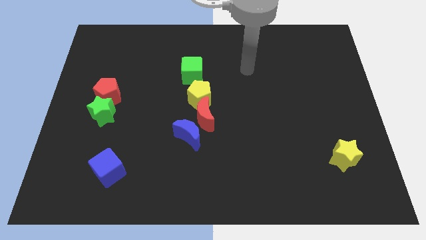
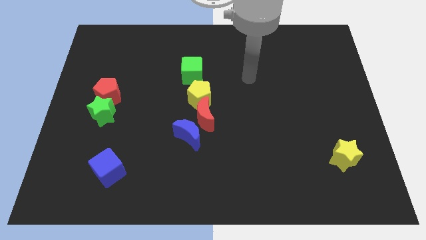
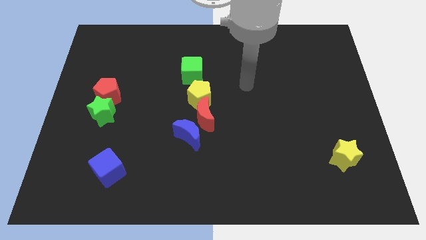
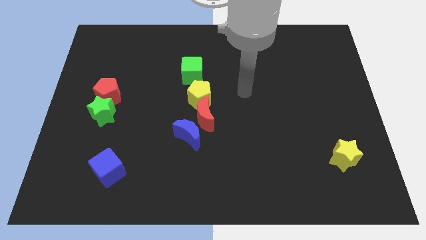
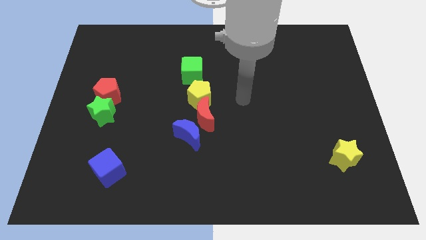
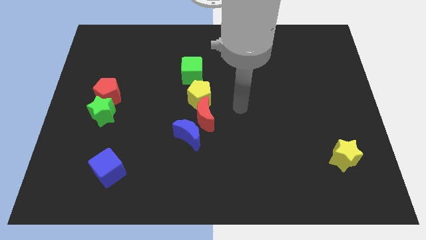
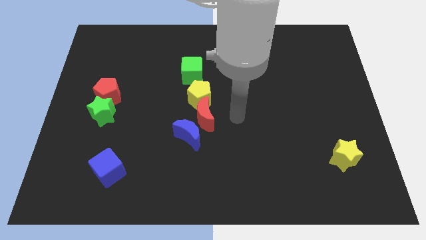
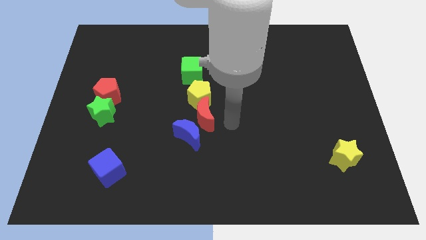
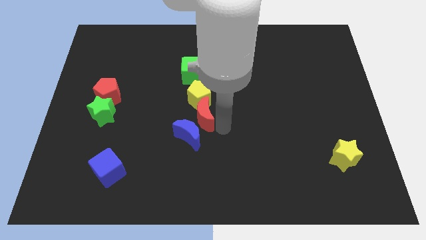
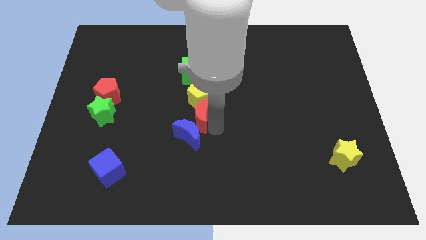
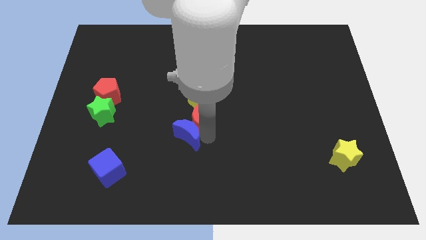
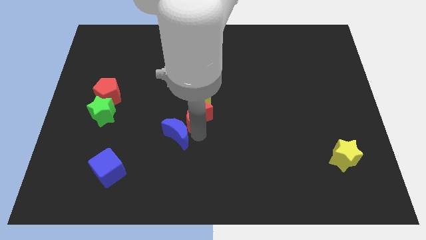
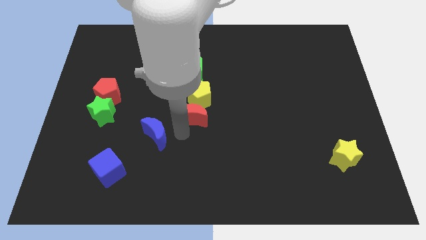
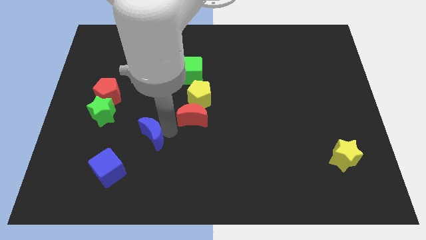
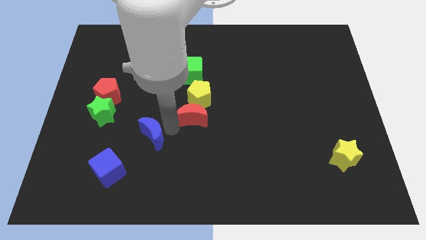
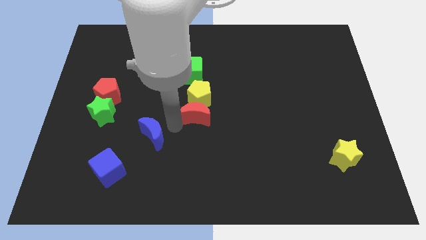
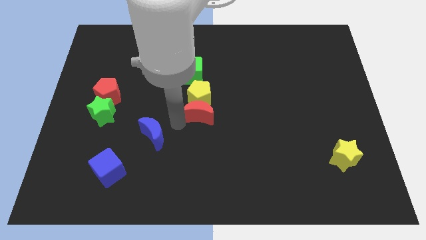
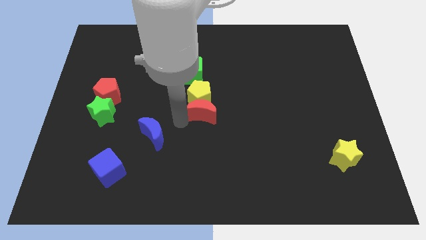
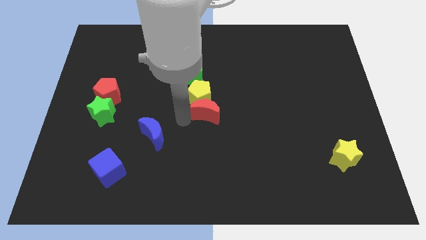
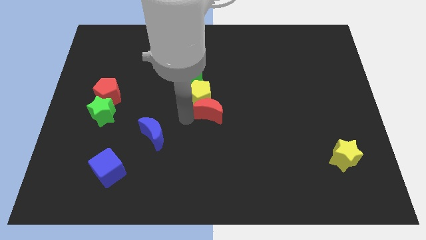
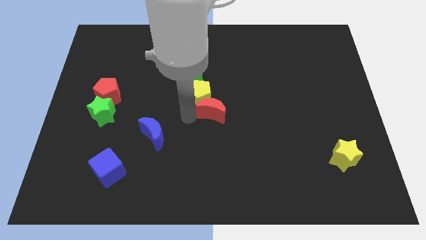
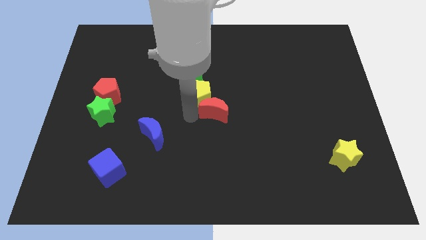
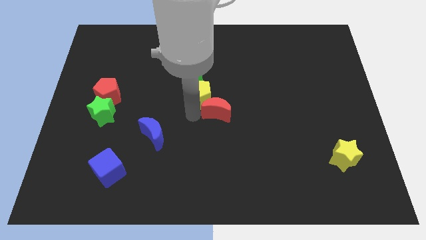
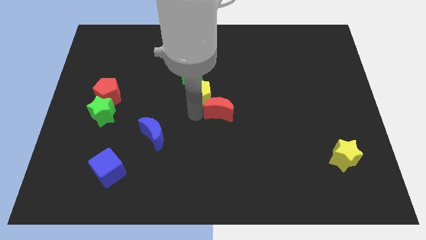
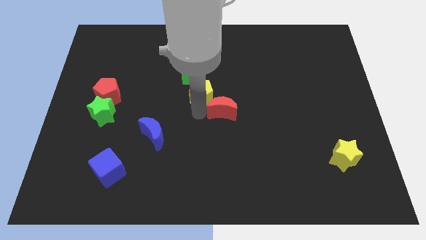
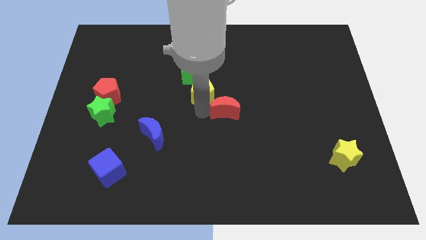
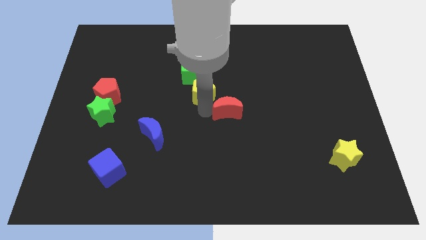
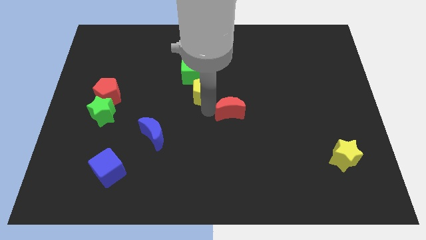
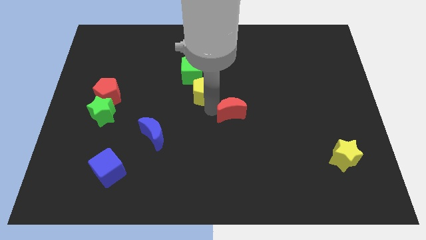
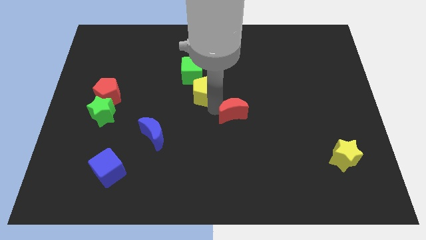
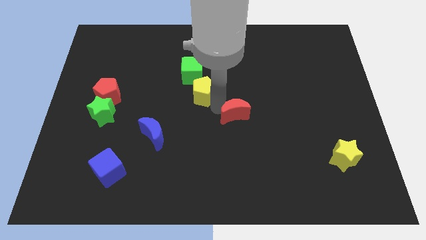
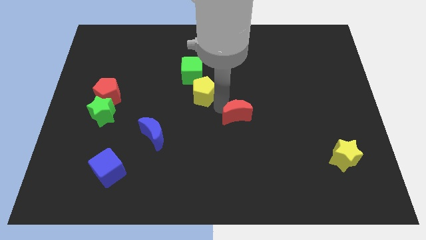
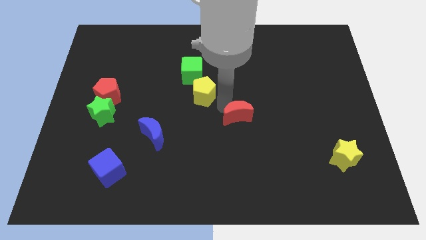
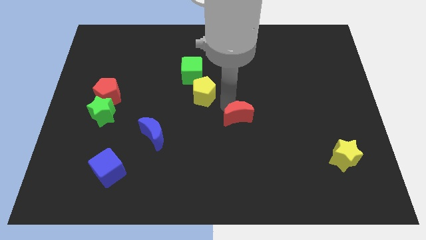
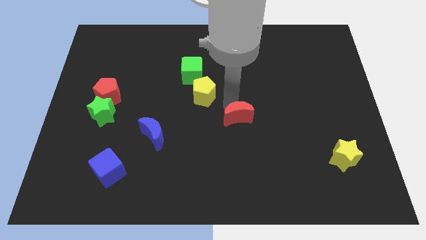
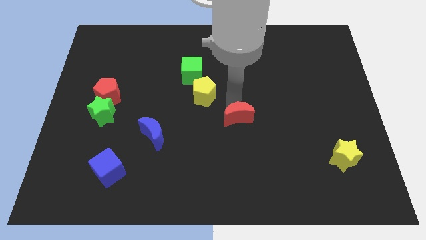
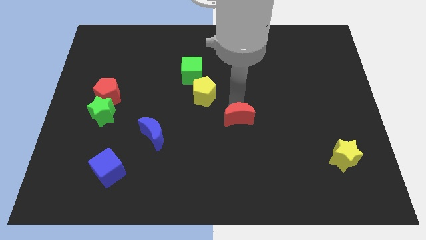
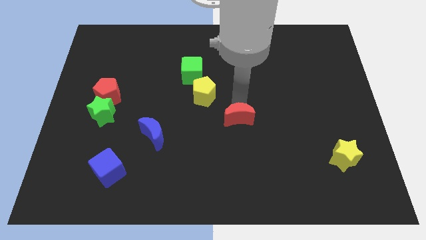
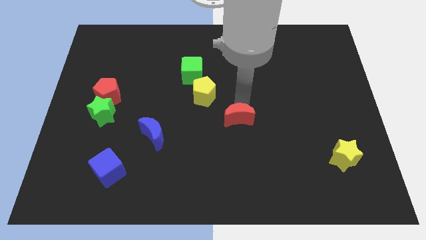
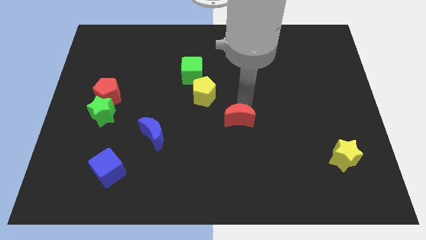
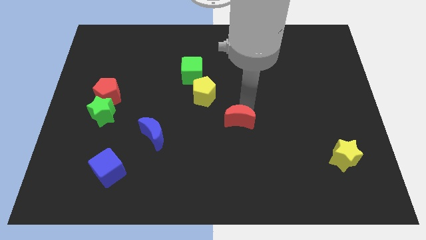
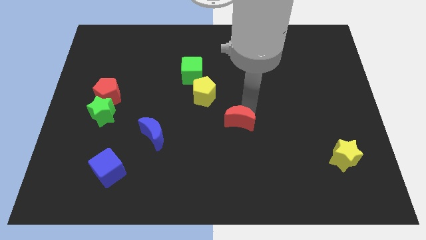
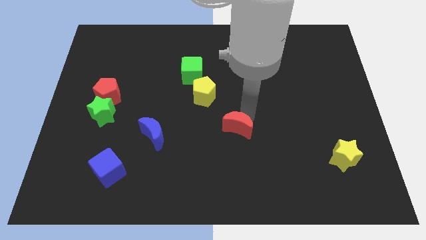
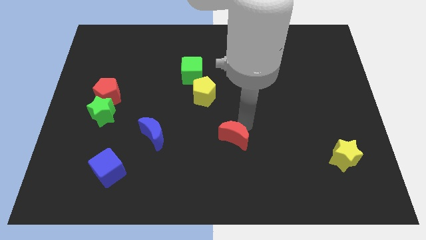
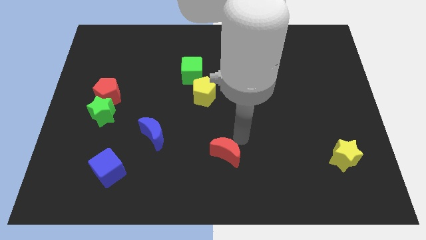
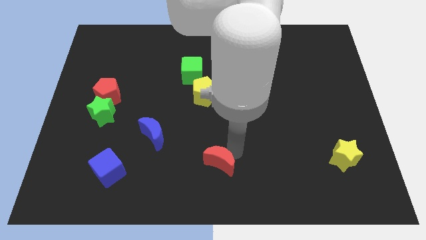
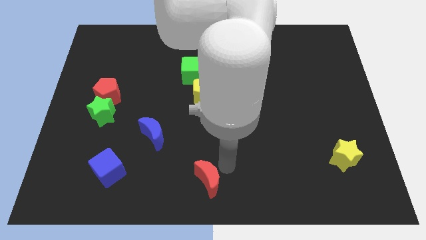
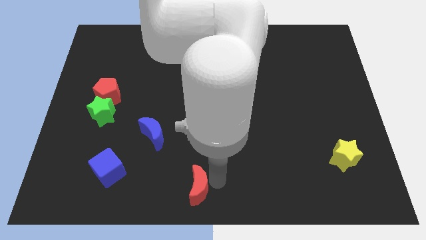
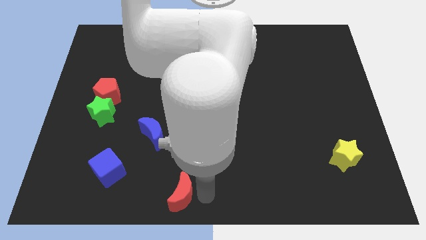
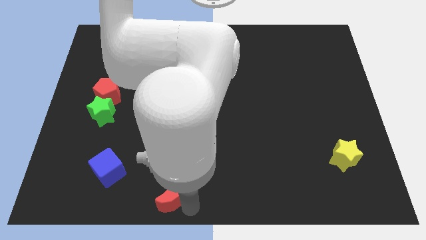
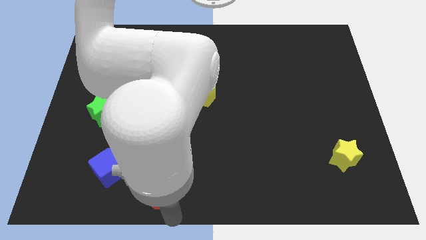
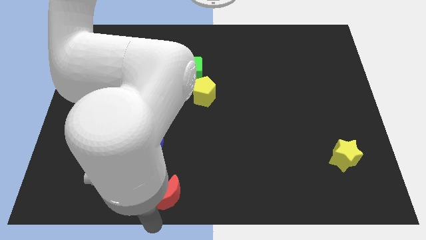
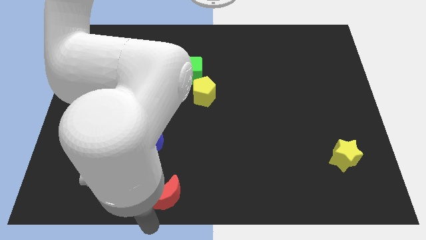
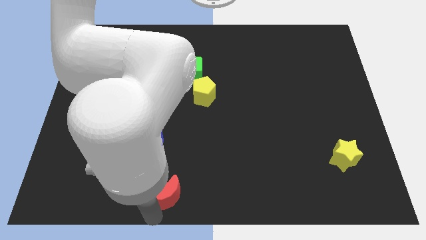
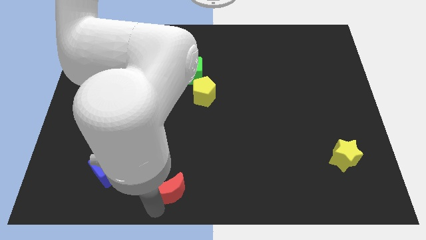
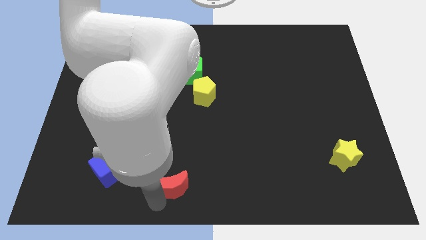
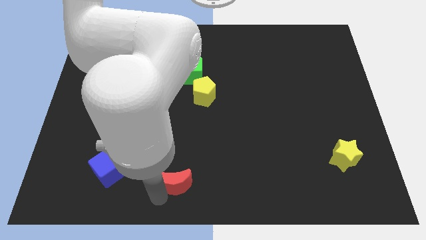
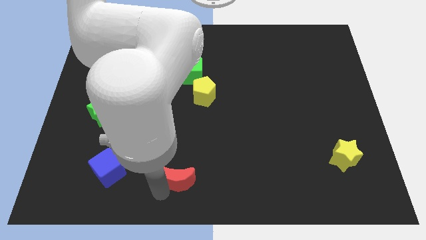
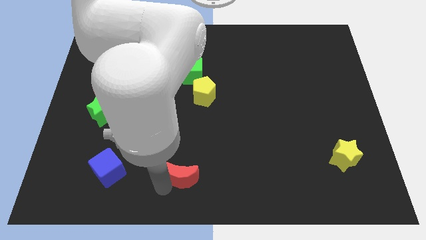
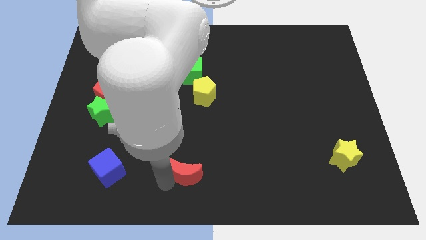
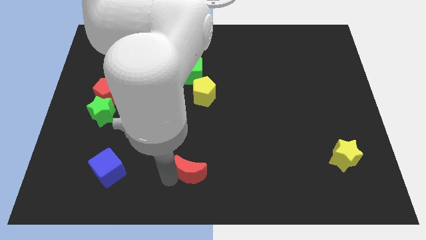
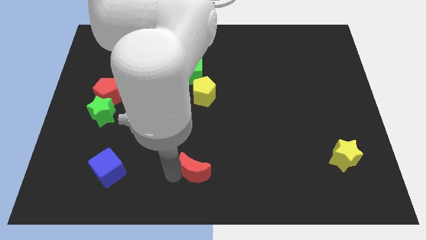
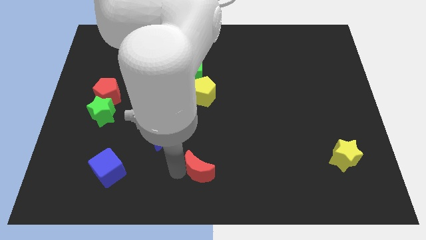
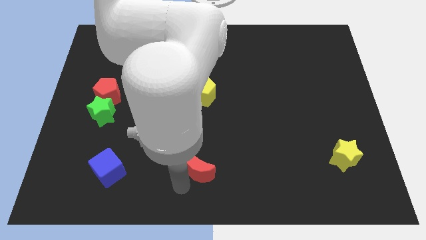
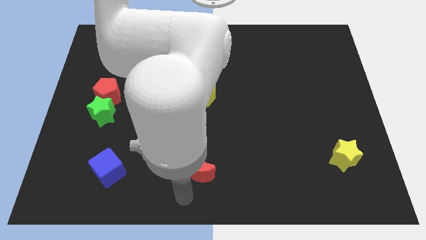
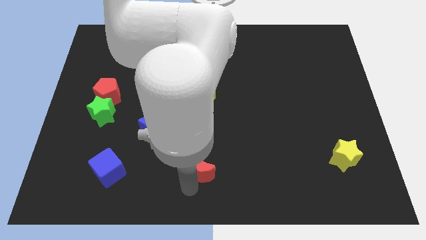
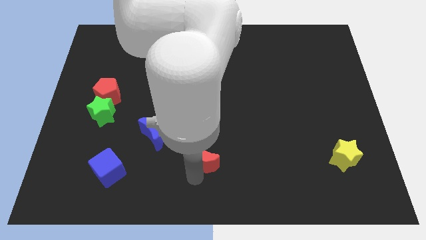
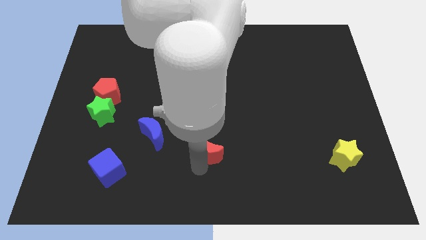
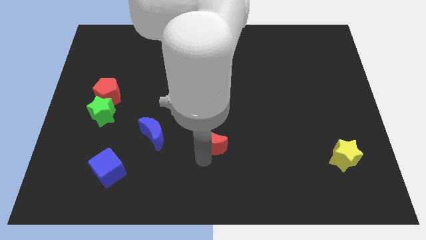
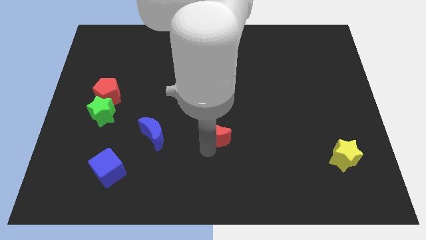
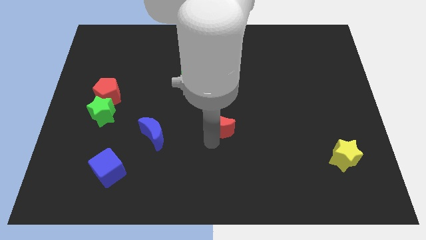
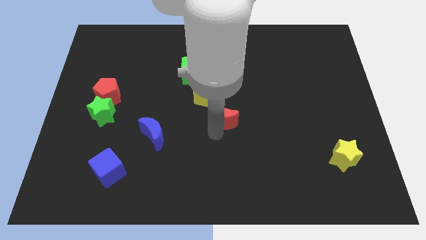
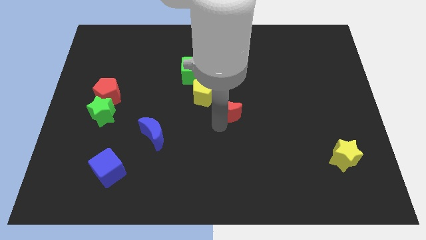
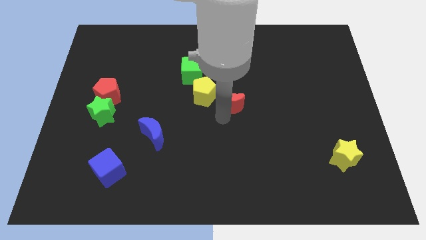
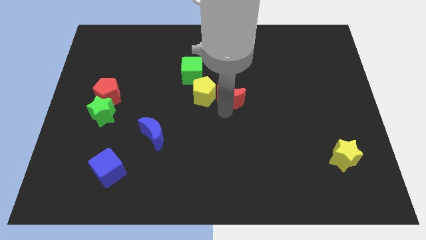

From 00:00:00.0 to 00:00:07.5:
slightly move the red moon up and then to the right
